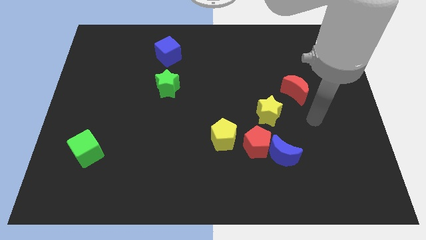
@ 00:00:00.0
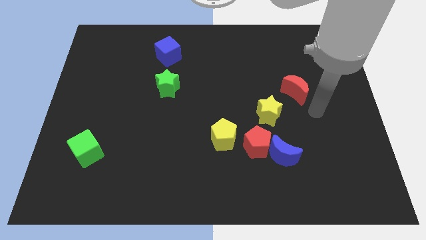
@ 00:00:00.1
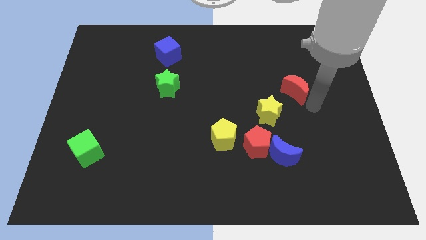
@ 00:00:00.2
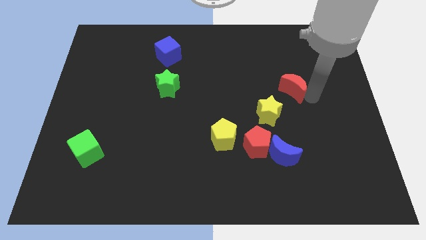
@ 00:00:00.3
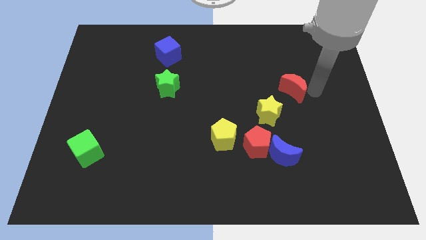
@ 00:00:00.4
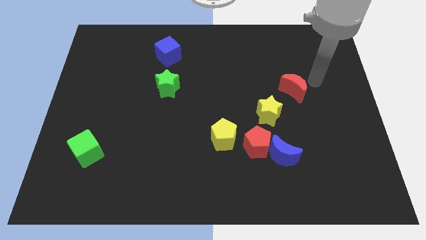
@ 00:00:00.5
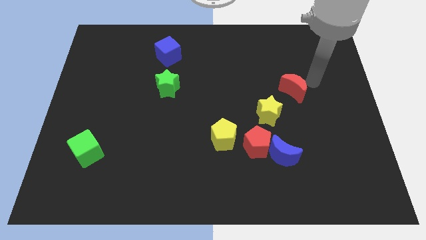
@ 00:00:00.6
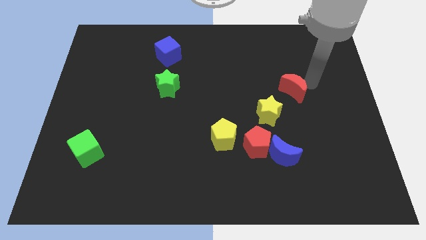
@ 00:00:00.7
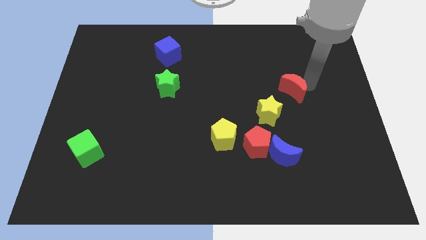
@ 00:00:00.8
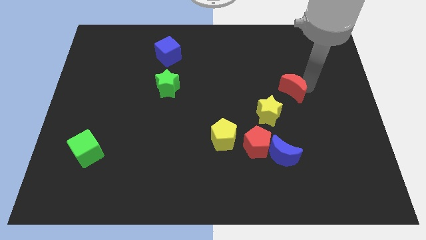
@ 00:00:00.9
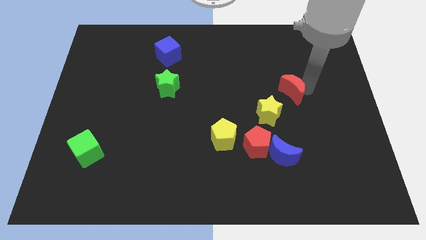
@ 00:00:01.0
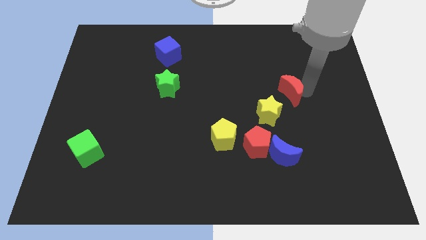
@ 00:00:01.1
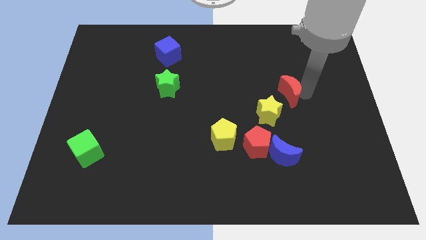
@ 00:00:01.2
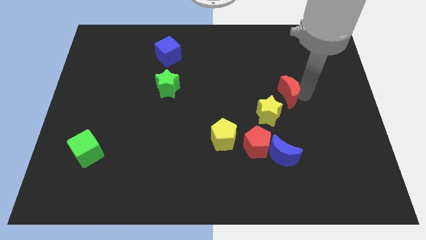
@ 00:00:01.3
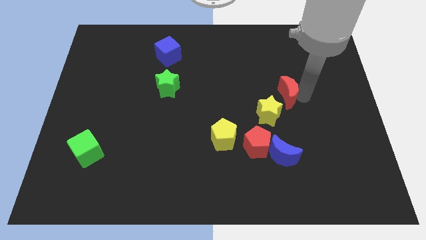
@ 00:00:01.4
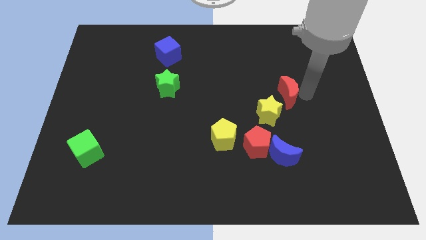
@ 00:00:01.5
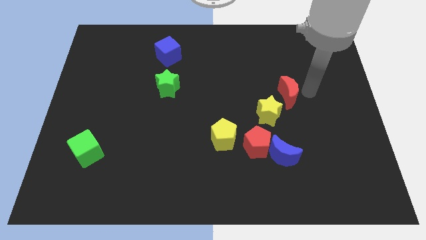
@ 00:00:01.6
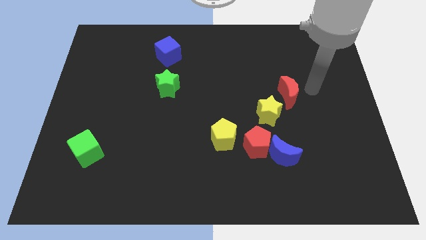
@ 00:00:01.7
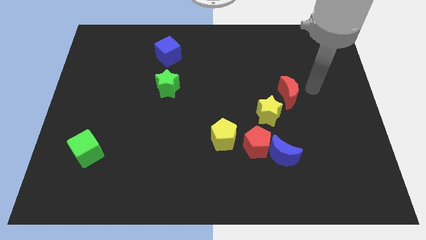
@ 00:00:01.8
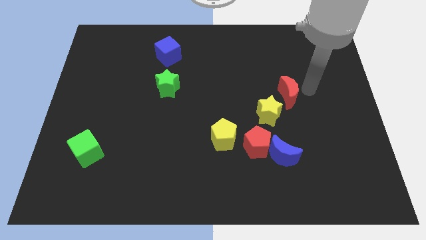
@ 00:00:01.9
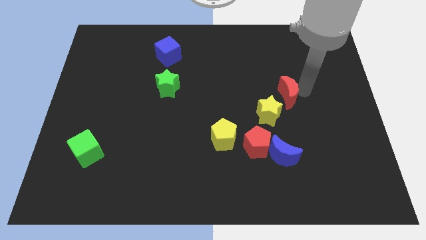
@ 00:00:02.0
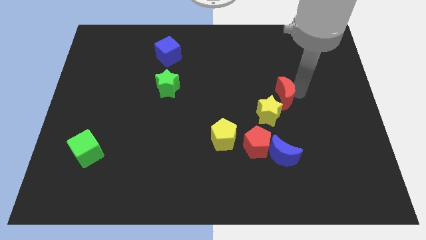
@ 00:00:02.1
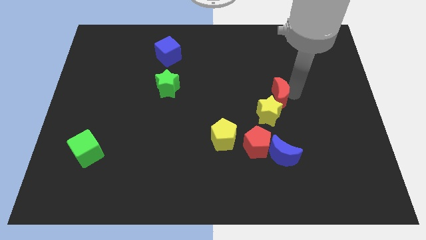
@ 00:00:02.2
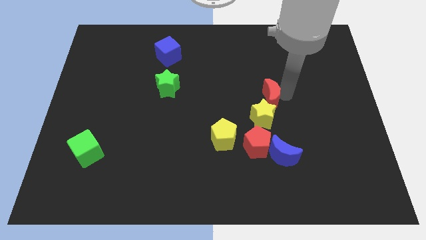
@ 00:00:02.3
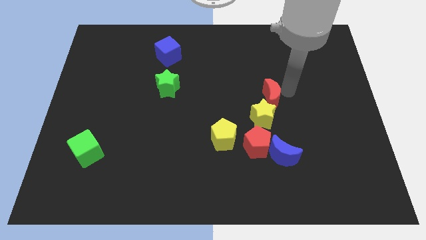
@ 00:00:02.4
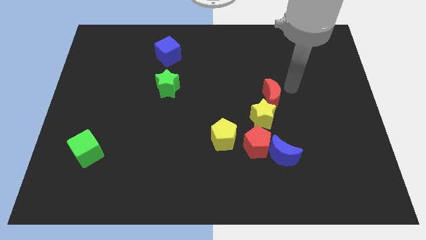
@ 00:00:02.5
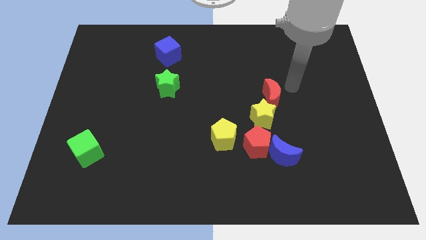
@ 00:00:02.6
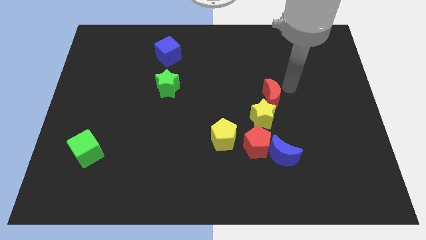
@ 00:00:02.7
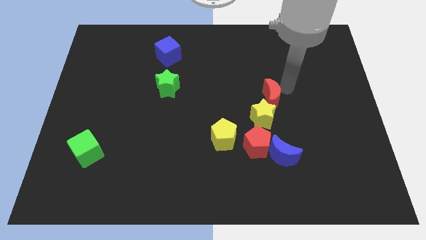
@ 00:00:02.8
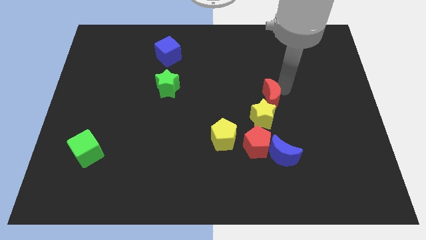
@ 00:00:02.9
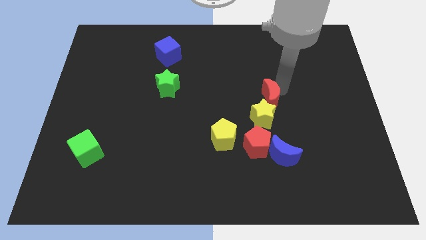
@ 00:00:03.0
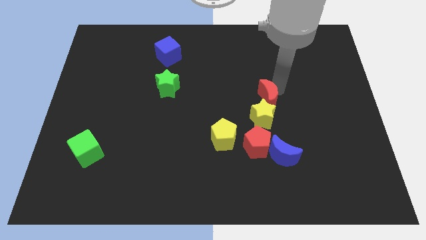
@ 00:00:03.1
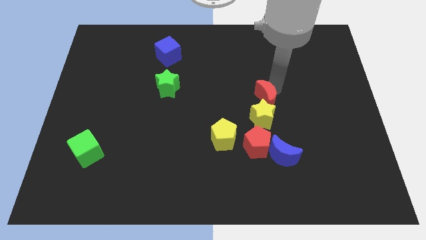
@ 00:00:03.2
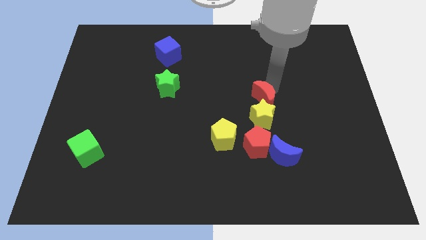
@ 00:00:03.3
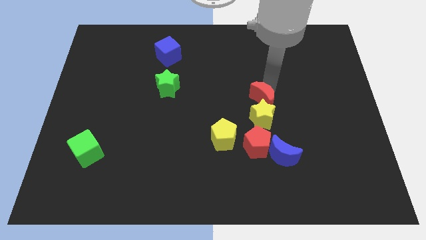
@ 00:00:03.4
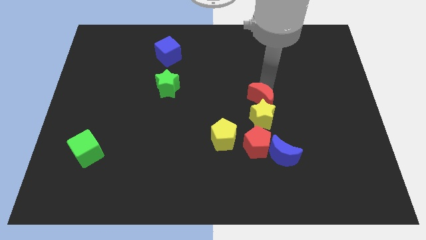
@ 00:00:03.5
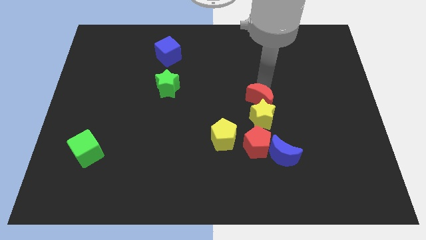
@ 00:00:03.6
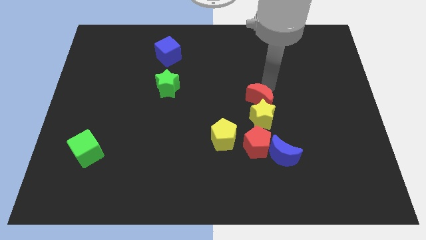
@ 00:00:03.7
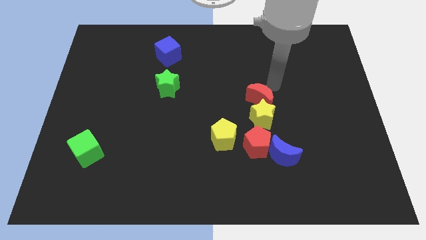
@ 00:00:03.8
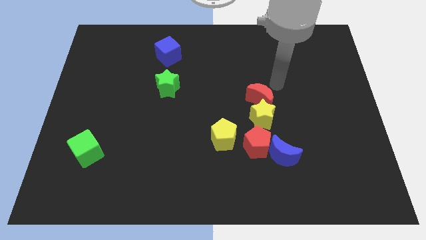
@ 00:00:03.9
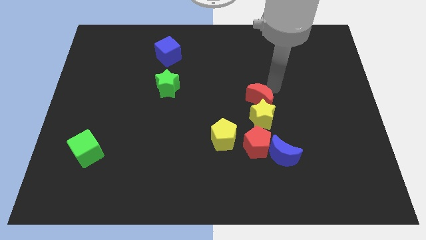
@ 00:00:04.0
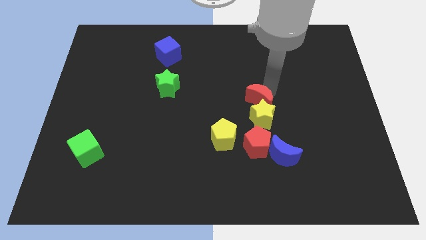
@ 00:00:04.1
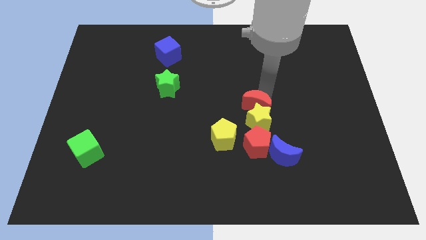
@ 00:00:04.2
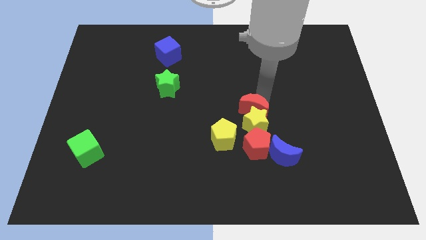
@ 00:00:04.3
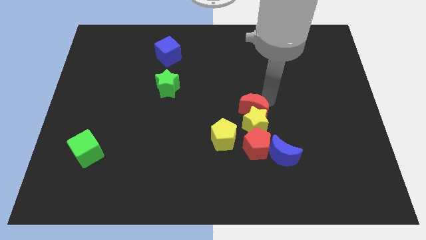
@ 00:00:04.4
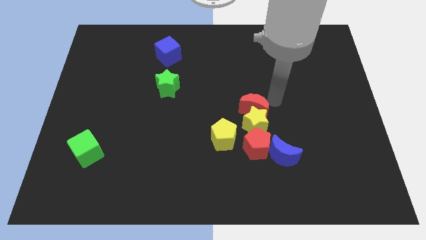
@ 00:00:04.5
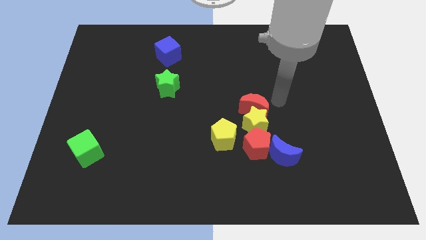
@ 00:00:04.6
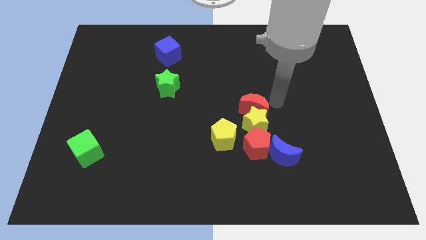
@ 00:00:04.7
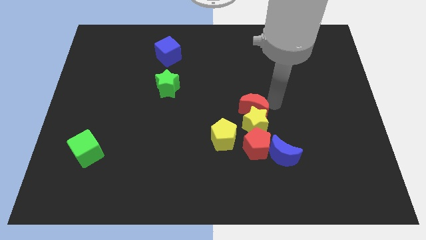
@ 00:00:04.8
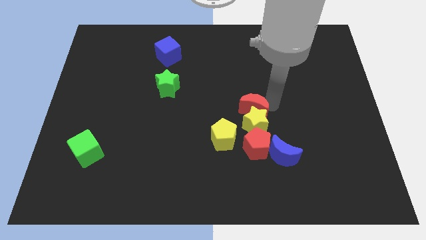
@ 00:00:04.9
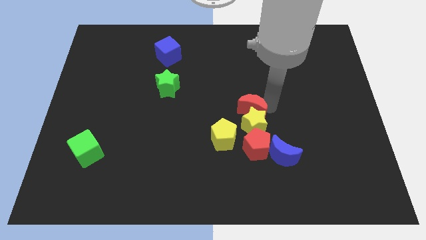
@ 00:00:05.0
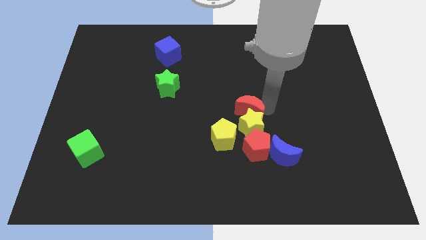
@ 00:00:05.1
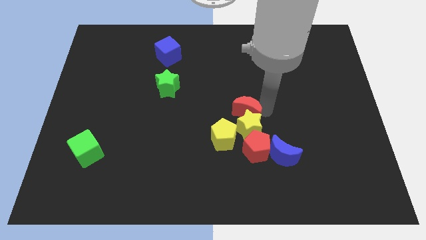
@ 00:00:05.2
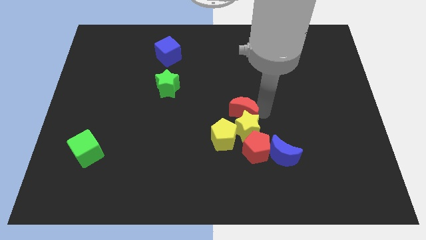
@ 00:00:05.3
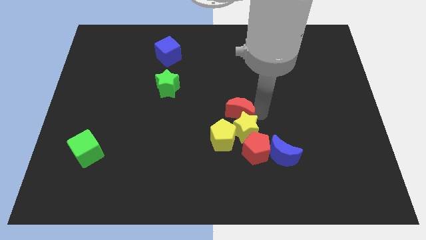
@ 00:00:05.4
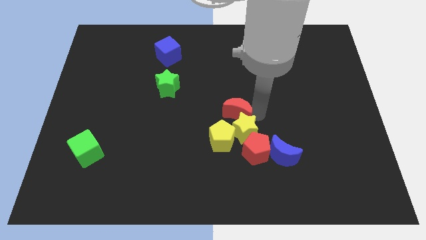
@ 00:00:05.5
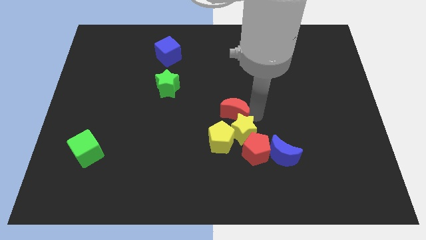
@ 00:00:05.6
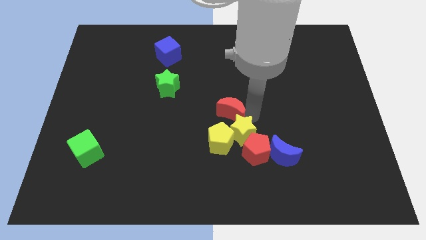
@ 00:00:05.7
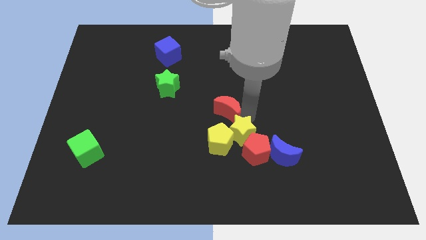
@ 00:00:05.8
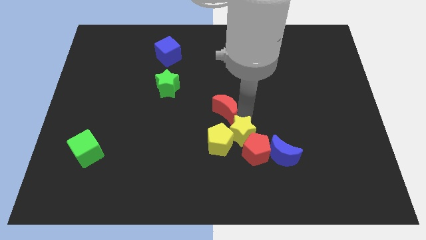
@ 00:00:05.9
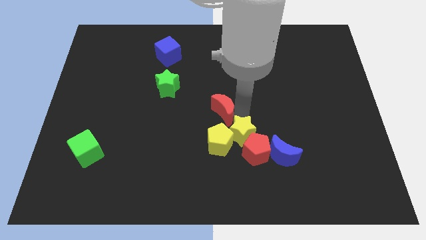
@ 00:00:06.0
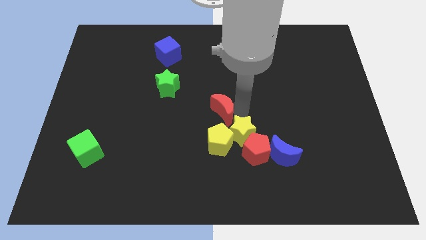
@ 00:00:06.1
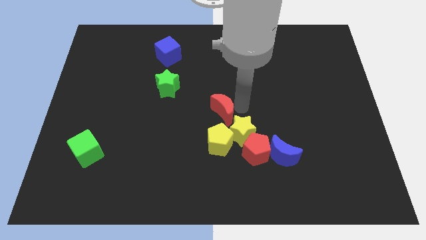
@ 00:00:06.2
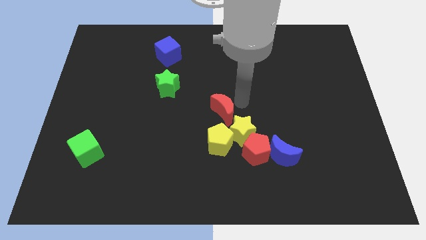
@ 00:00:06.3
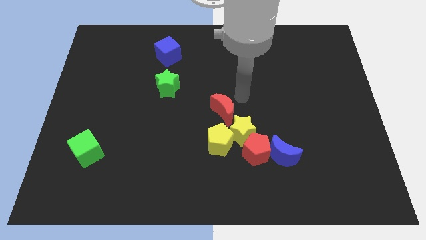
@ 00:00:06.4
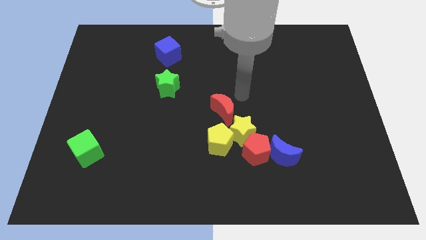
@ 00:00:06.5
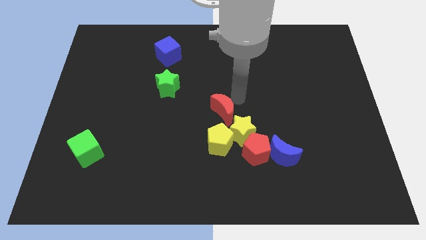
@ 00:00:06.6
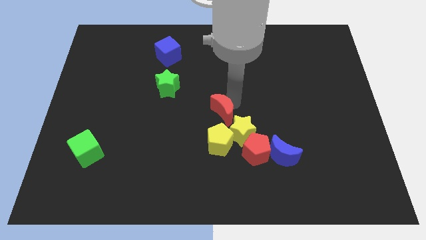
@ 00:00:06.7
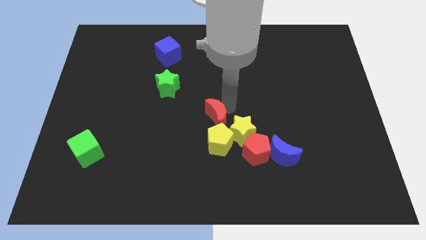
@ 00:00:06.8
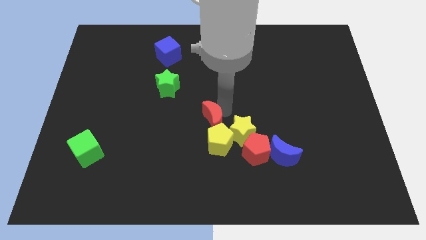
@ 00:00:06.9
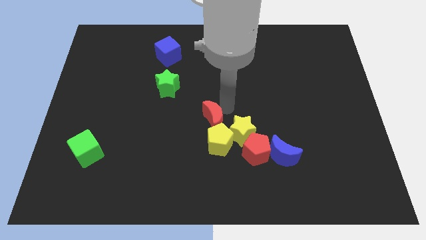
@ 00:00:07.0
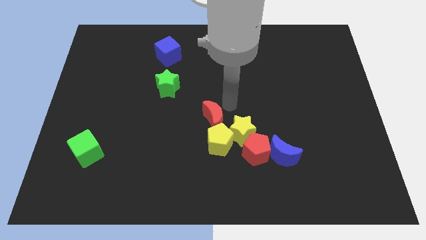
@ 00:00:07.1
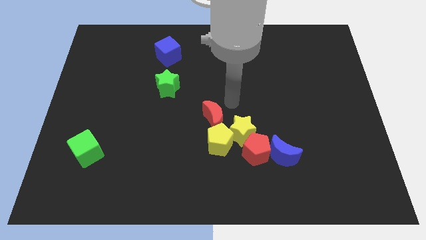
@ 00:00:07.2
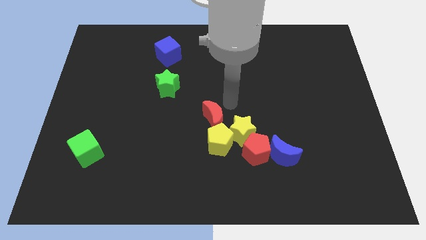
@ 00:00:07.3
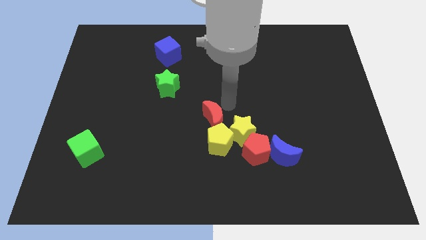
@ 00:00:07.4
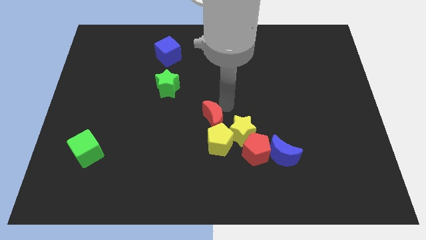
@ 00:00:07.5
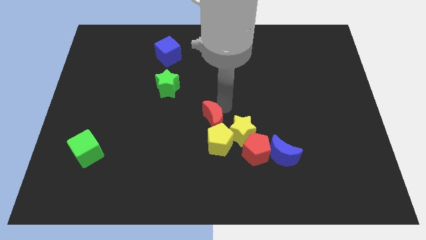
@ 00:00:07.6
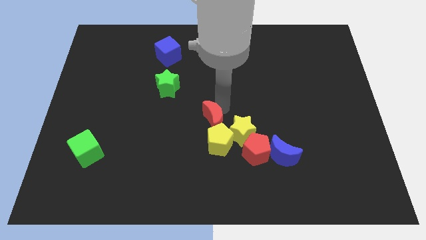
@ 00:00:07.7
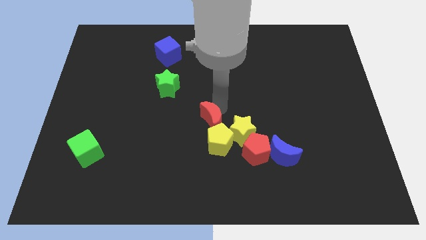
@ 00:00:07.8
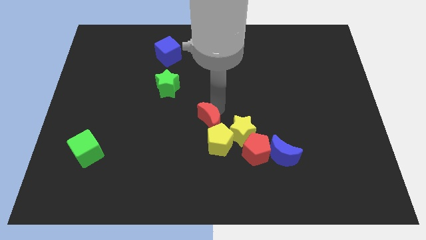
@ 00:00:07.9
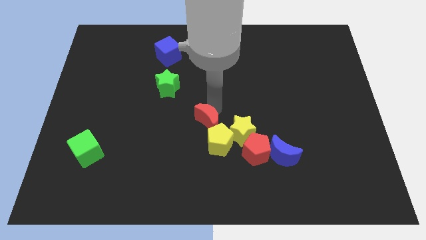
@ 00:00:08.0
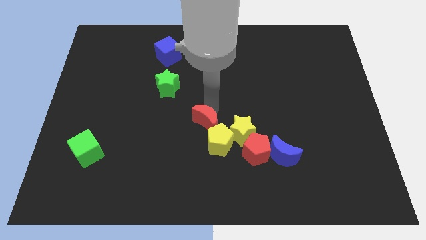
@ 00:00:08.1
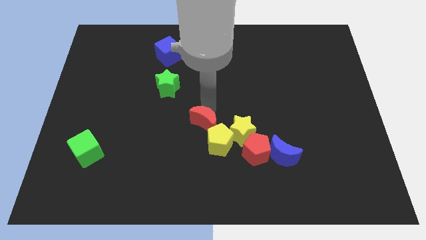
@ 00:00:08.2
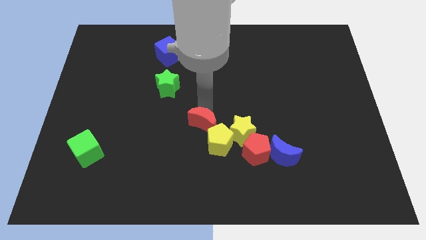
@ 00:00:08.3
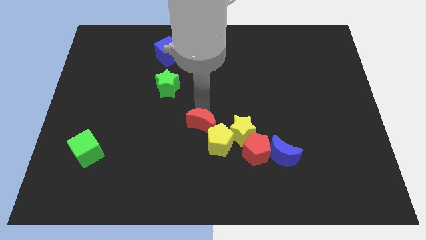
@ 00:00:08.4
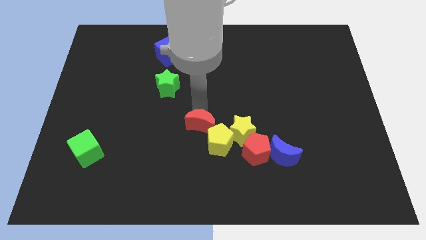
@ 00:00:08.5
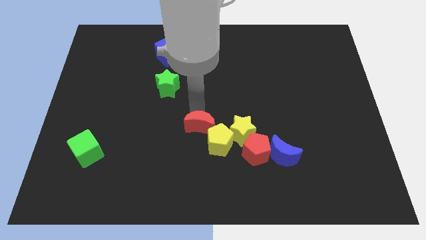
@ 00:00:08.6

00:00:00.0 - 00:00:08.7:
slide the red moon down and left diagonally
